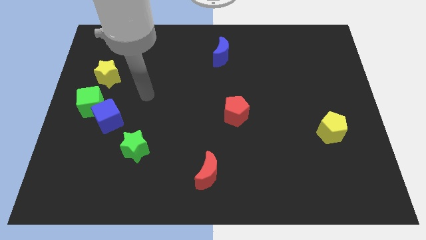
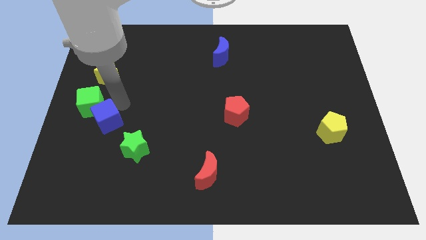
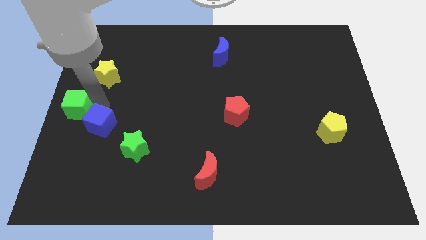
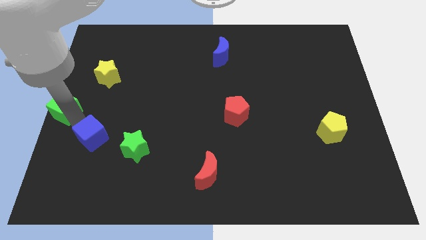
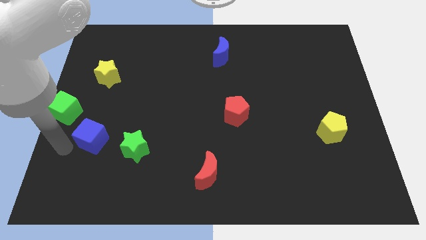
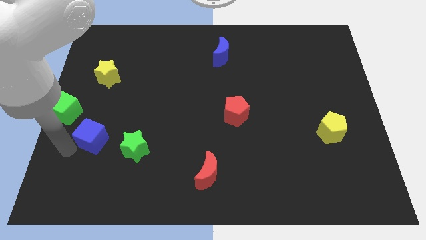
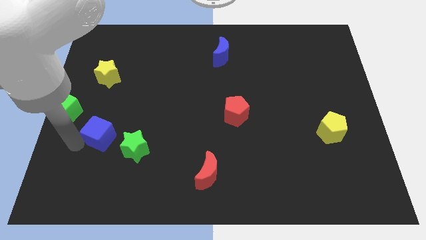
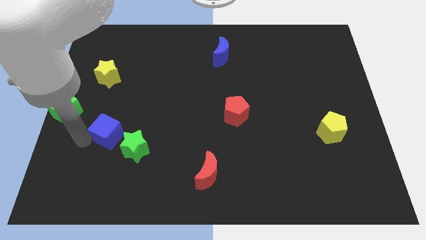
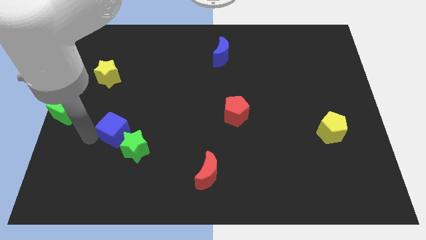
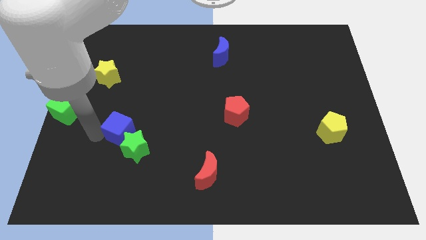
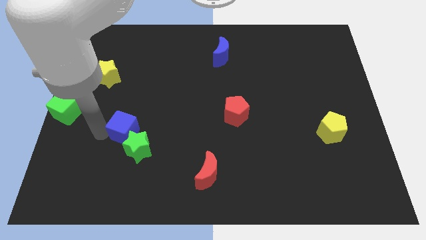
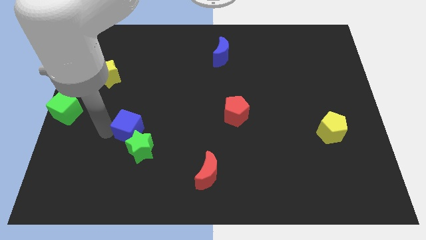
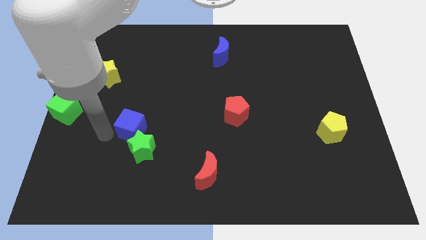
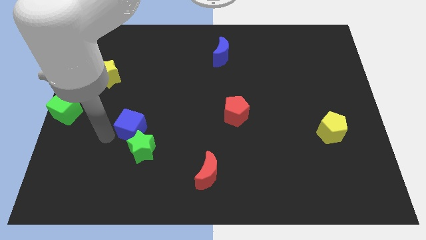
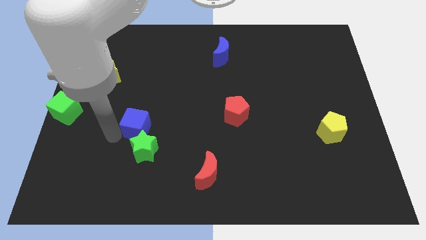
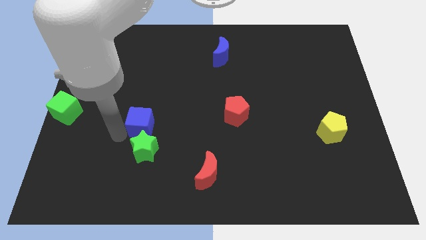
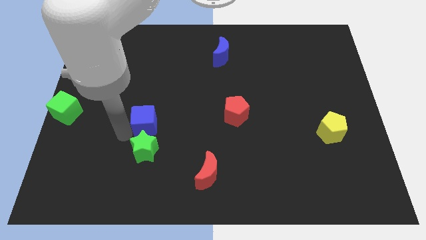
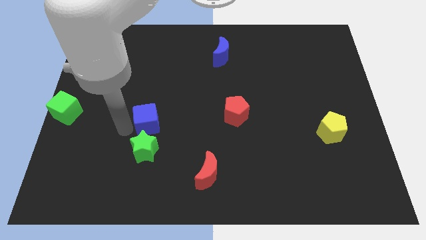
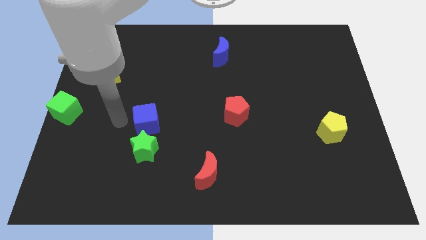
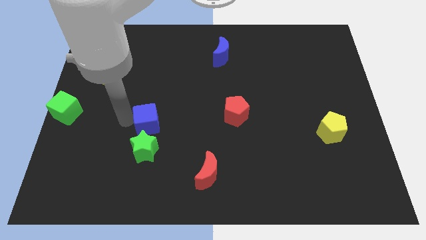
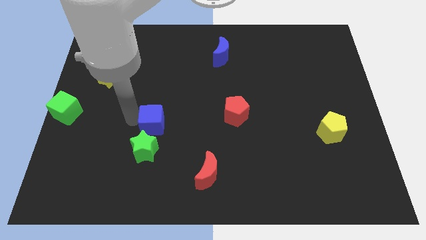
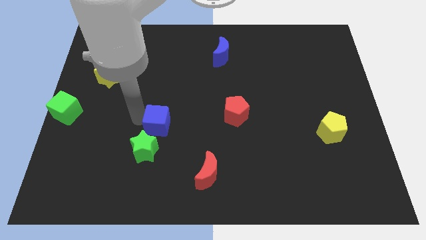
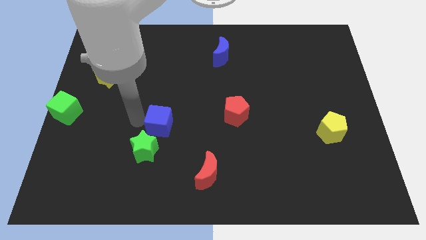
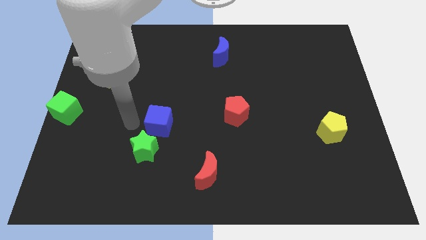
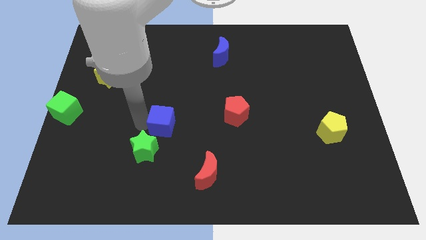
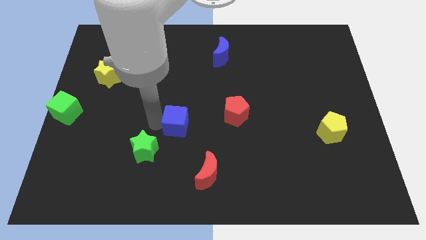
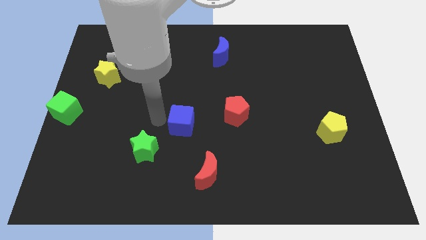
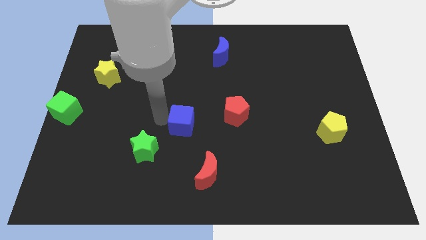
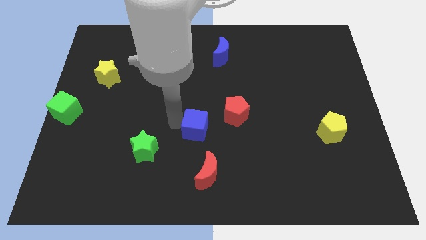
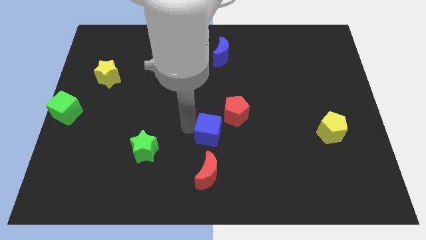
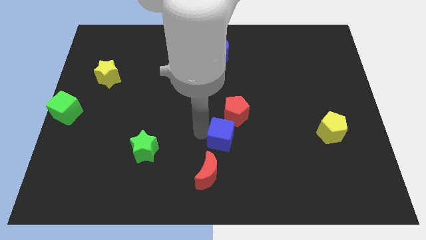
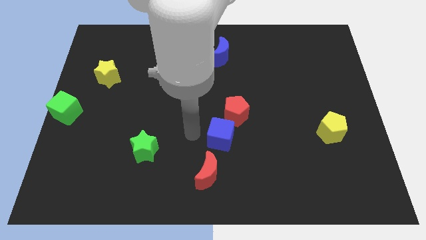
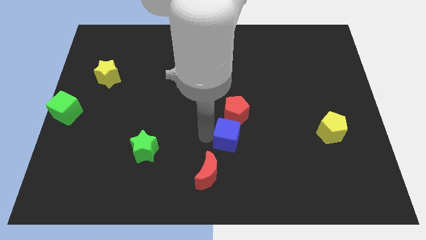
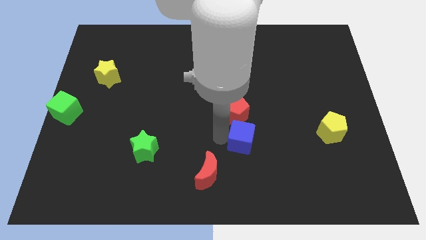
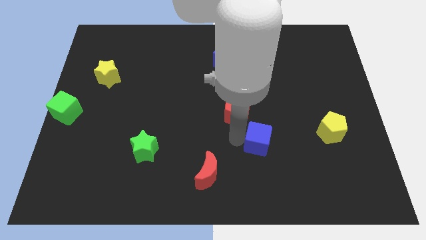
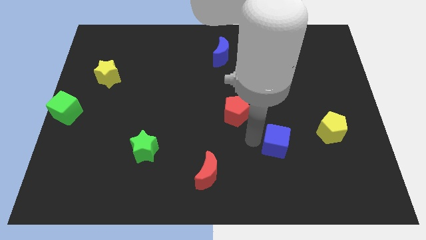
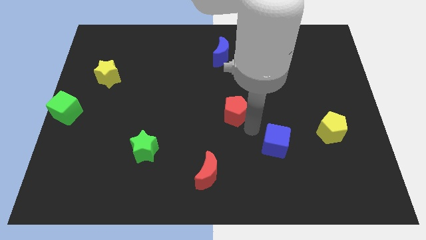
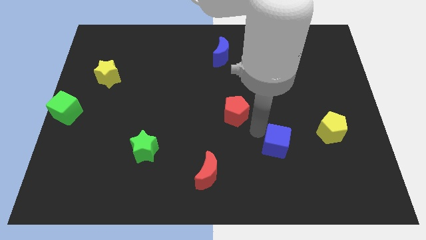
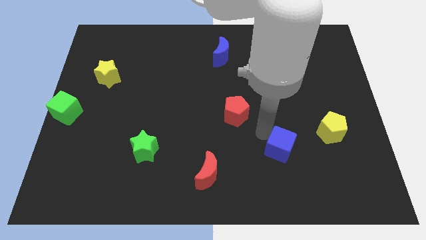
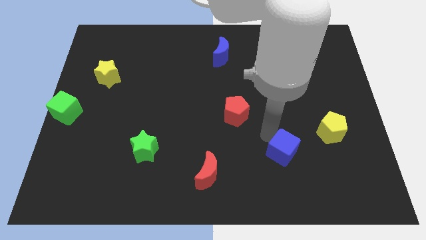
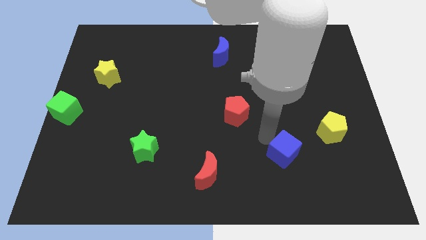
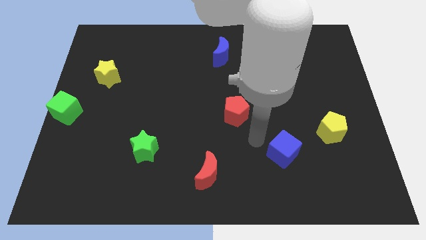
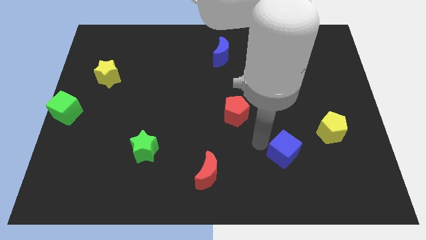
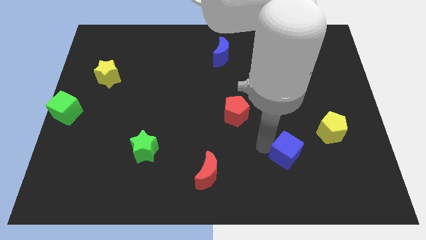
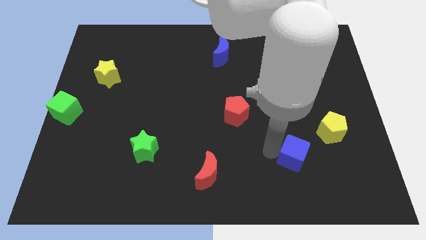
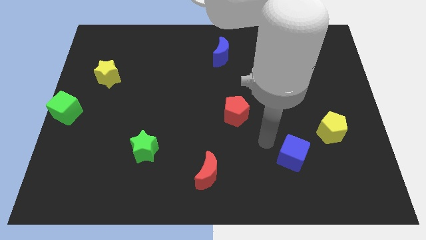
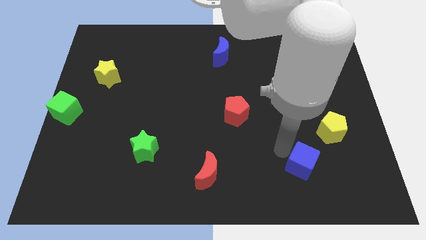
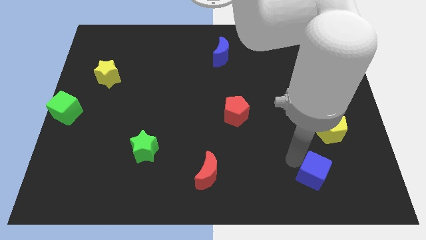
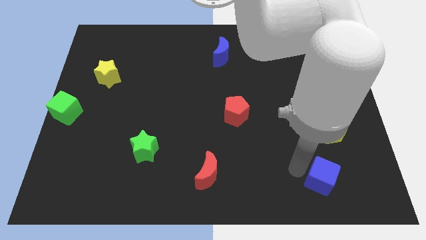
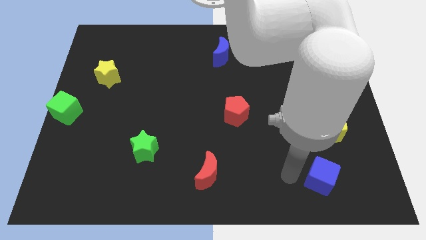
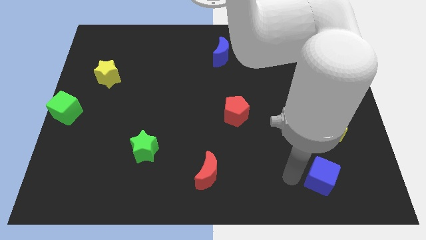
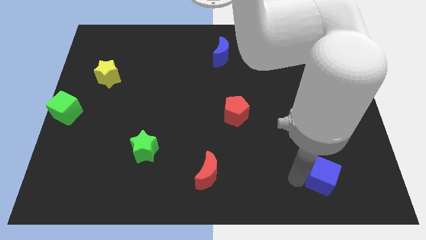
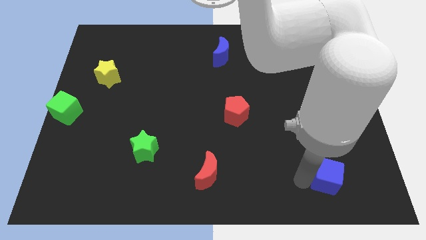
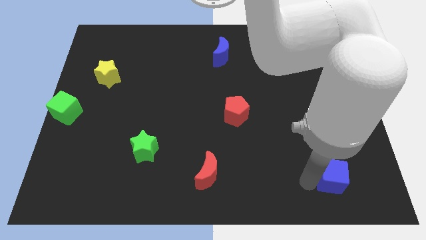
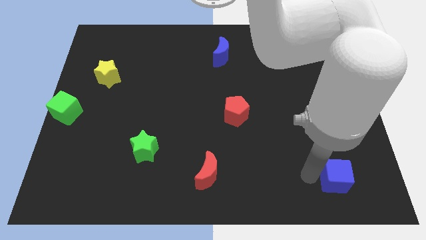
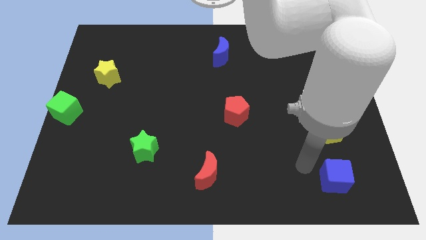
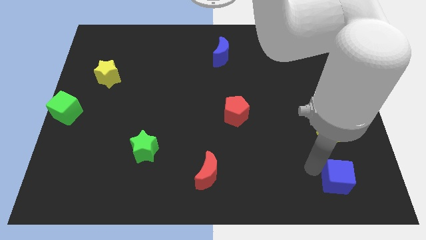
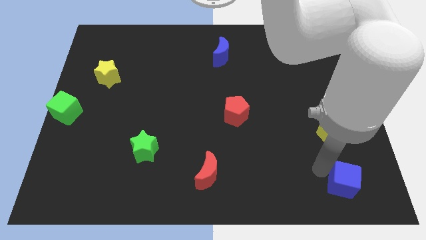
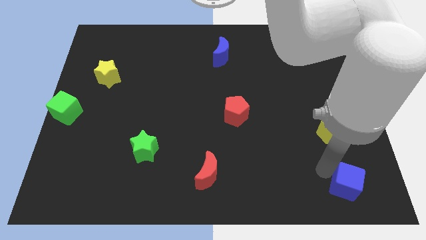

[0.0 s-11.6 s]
push the blue cube to the bottom right

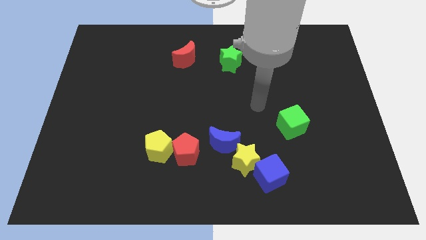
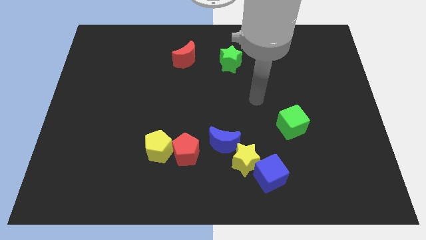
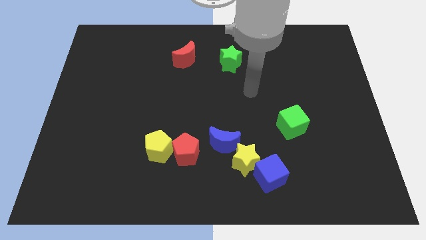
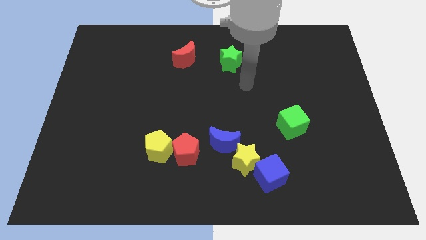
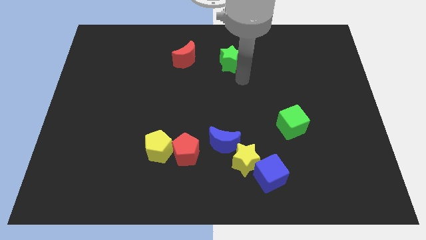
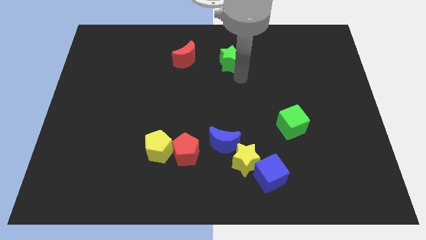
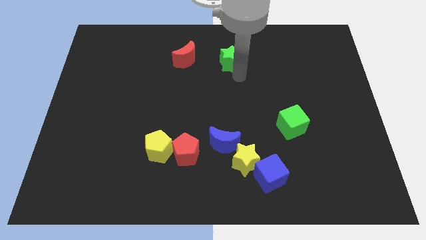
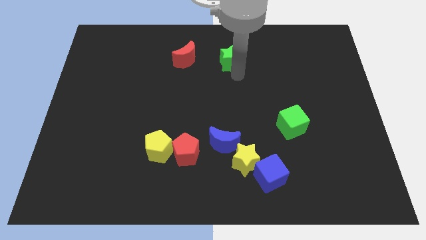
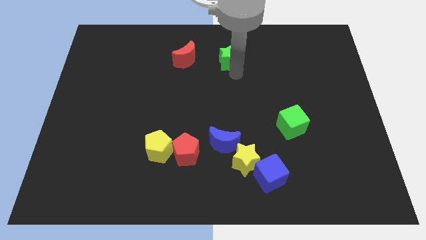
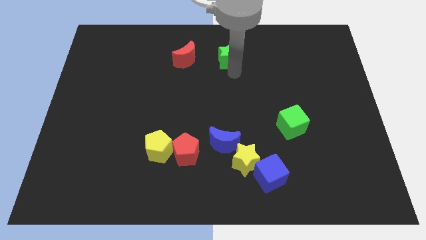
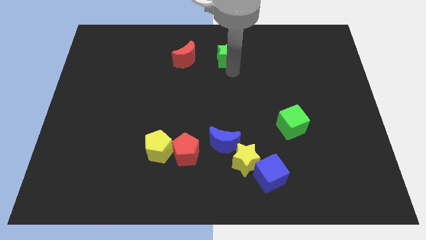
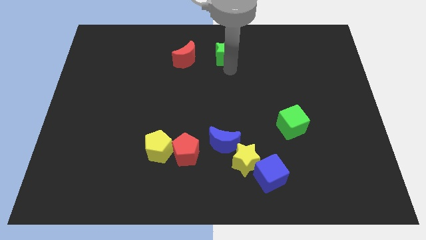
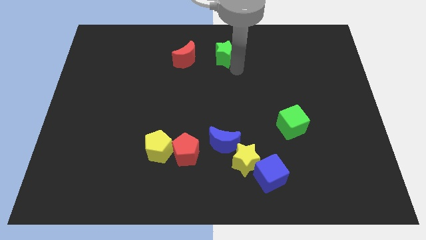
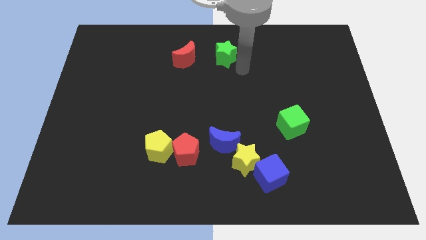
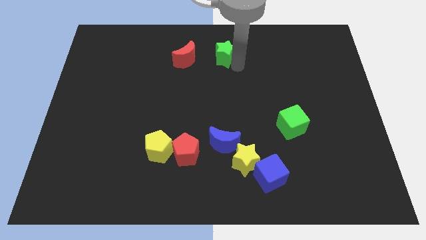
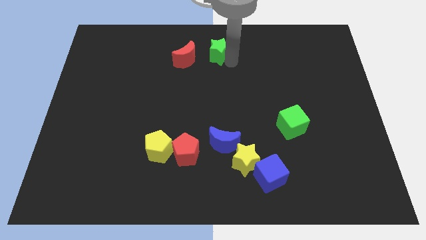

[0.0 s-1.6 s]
slide the green star to the towards your base
